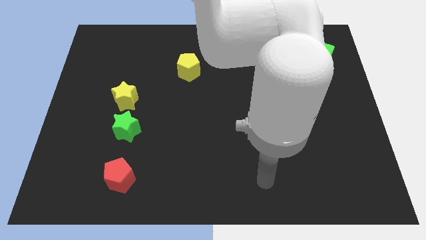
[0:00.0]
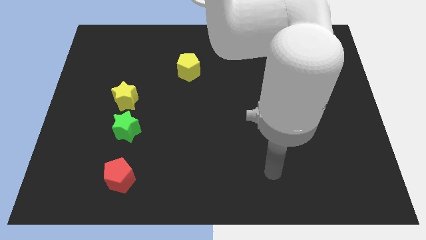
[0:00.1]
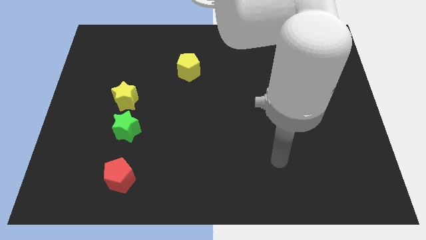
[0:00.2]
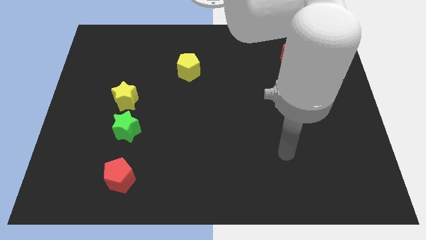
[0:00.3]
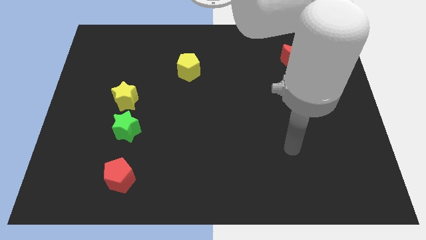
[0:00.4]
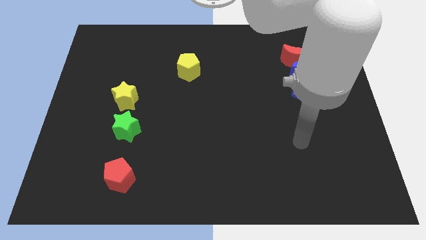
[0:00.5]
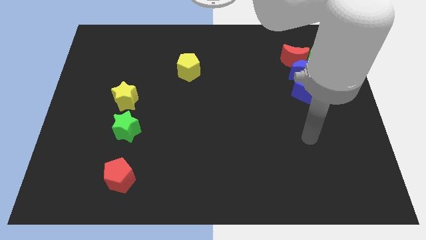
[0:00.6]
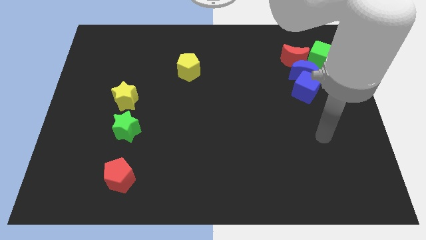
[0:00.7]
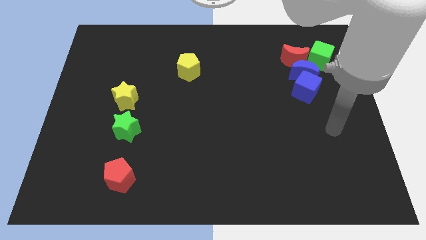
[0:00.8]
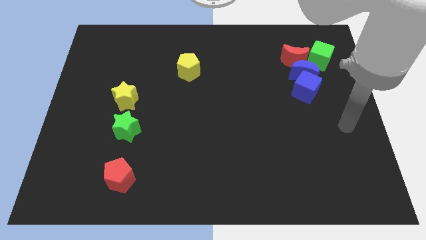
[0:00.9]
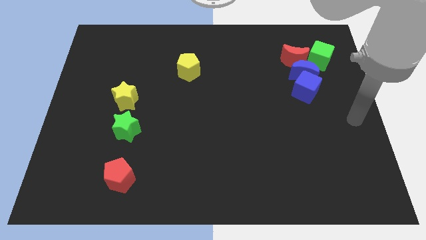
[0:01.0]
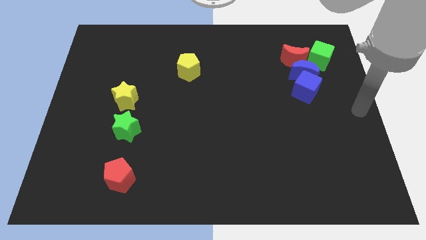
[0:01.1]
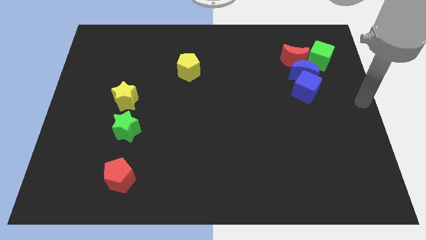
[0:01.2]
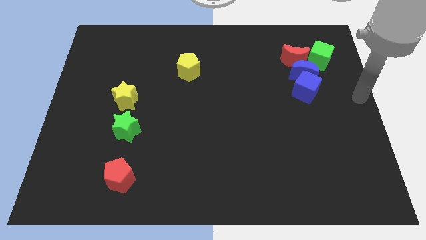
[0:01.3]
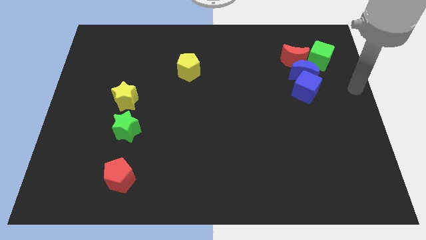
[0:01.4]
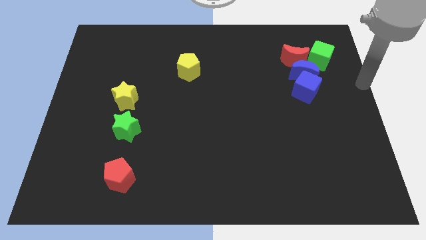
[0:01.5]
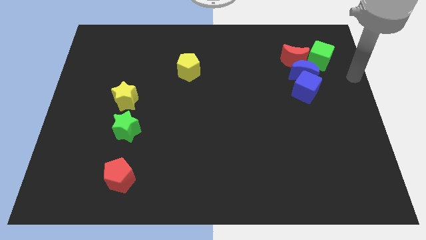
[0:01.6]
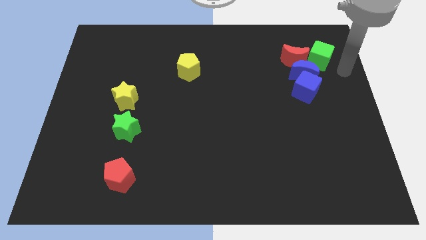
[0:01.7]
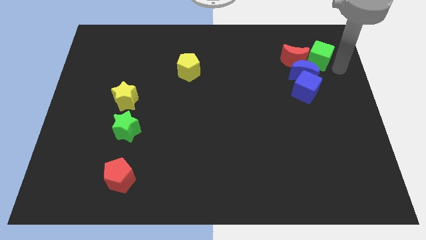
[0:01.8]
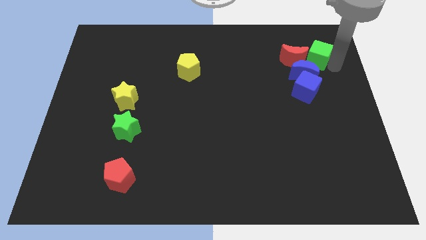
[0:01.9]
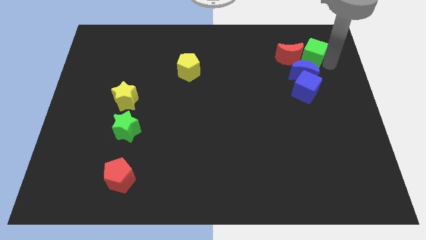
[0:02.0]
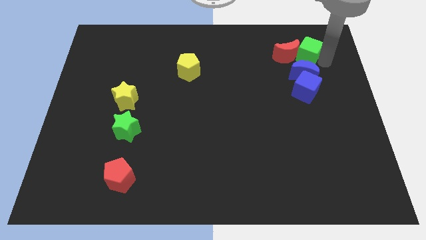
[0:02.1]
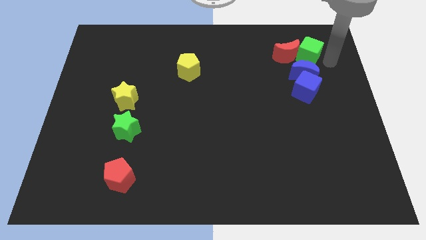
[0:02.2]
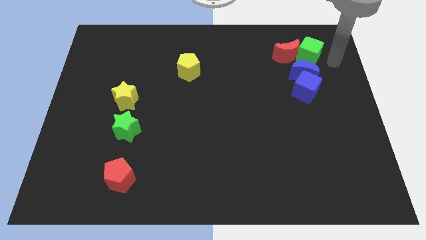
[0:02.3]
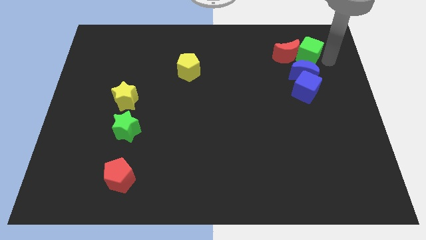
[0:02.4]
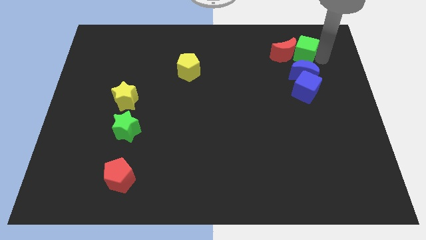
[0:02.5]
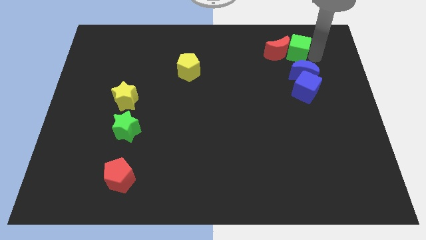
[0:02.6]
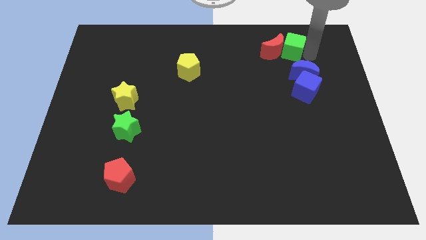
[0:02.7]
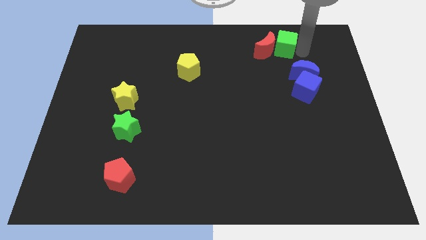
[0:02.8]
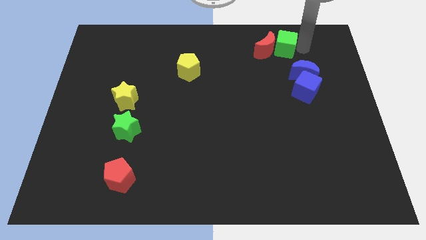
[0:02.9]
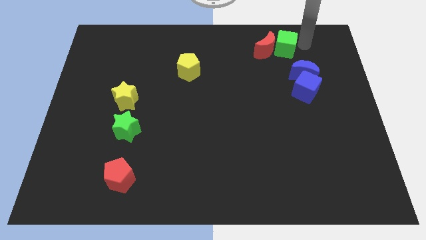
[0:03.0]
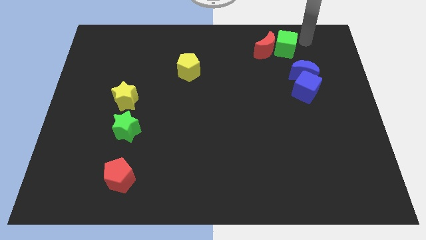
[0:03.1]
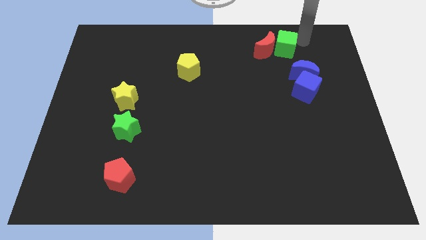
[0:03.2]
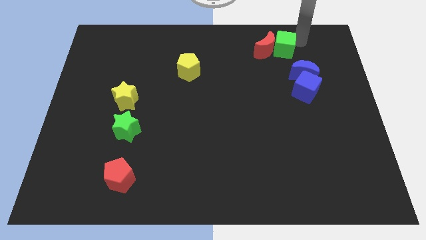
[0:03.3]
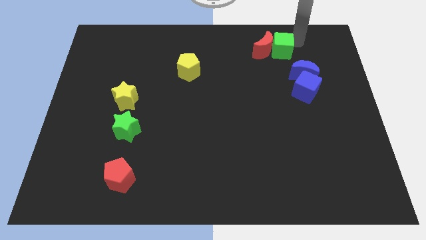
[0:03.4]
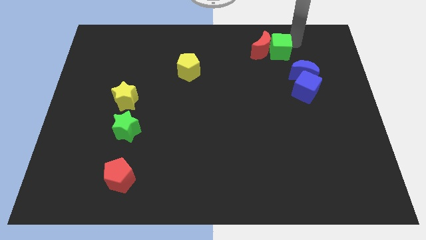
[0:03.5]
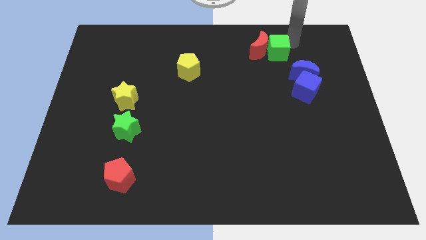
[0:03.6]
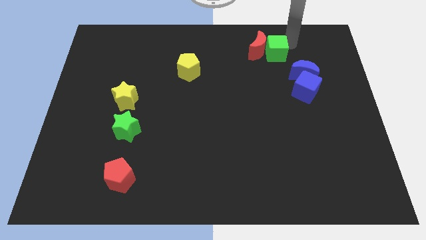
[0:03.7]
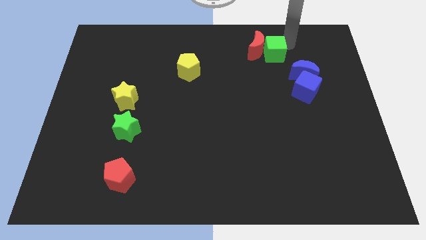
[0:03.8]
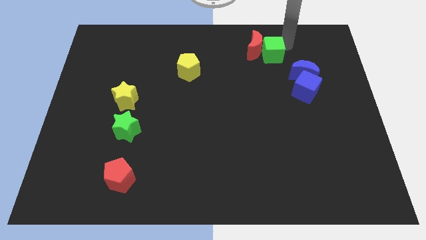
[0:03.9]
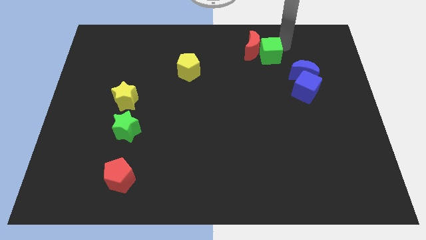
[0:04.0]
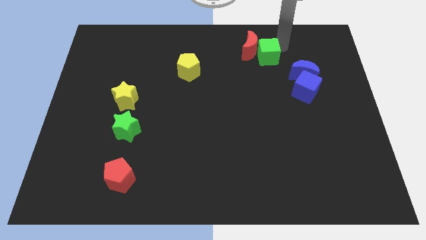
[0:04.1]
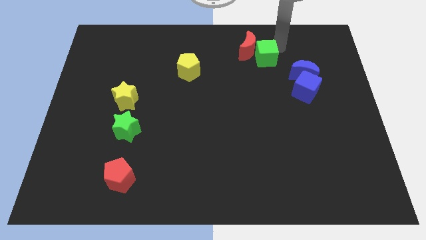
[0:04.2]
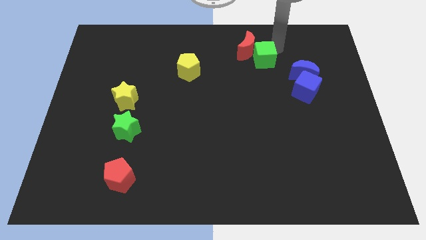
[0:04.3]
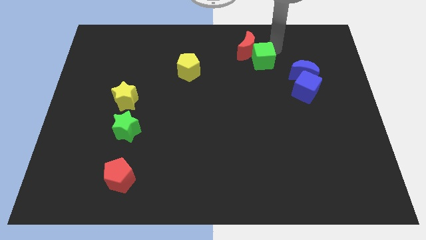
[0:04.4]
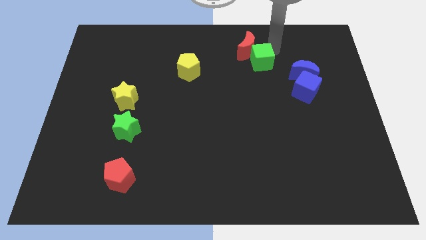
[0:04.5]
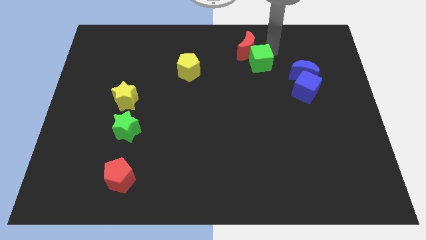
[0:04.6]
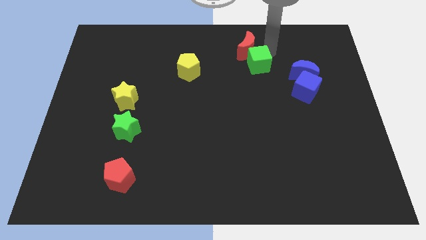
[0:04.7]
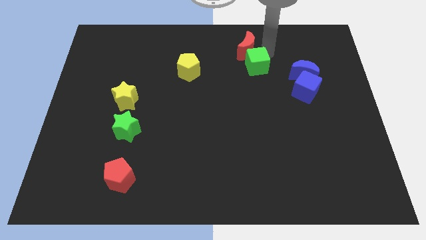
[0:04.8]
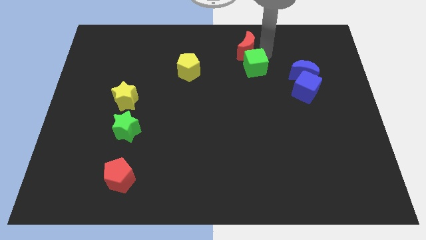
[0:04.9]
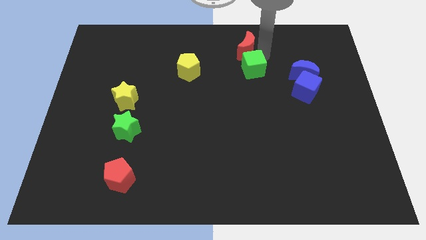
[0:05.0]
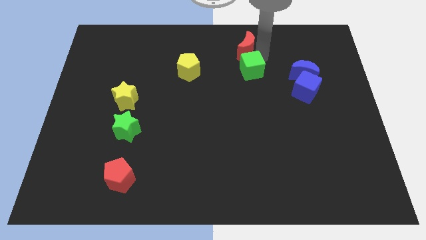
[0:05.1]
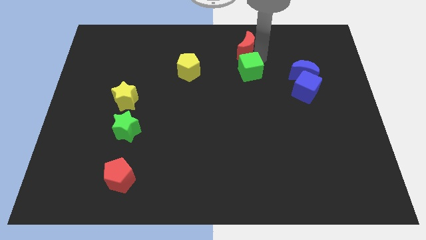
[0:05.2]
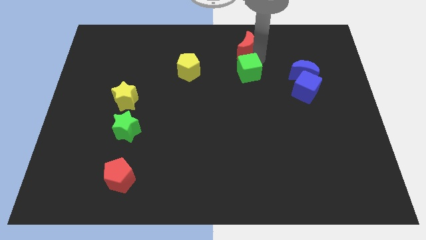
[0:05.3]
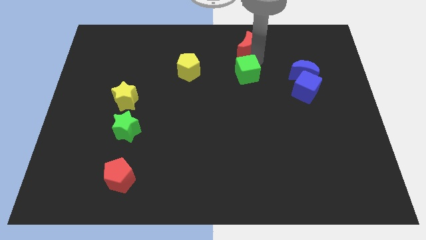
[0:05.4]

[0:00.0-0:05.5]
put the green cube to the center

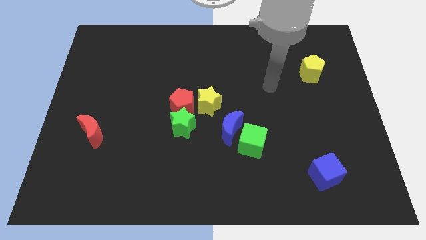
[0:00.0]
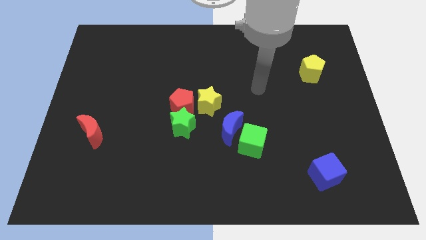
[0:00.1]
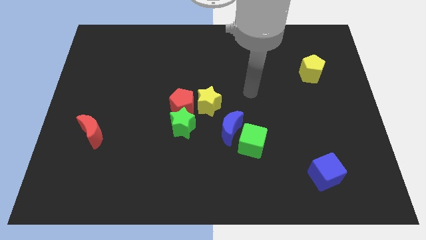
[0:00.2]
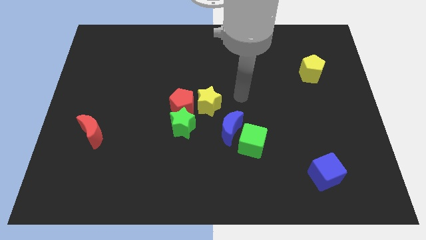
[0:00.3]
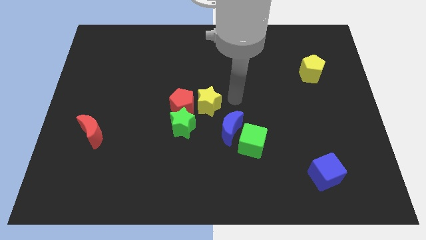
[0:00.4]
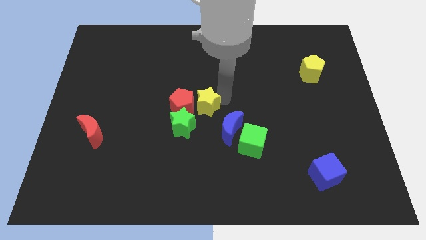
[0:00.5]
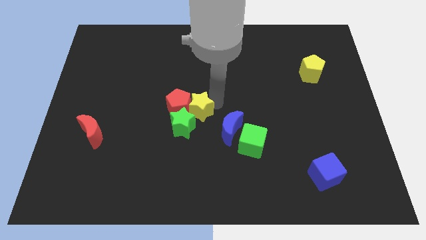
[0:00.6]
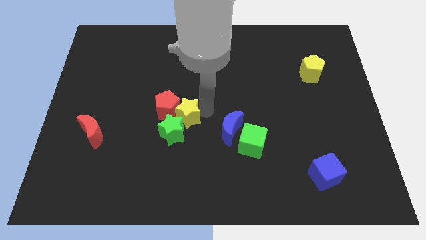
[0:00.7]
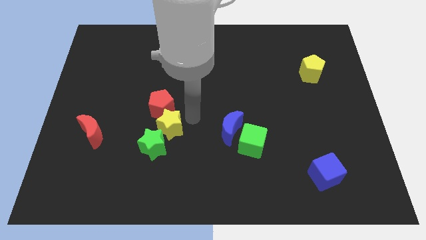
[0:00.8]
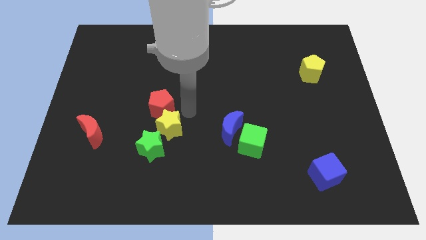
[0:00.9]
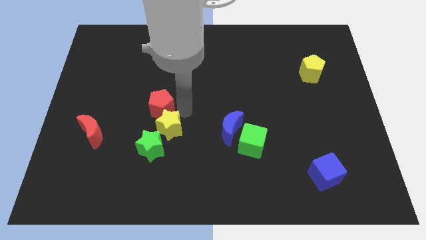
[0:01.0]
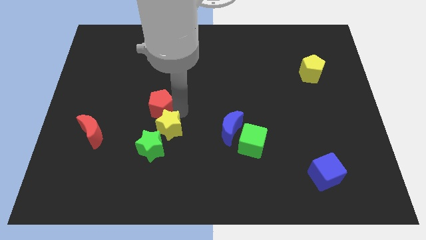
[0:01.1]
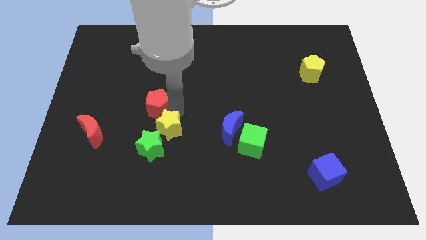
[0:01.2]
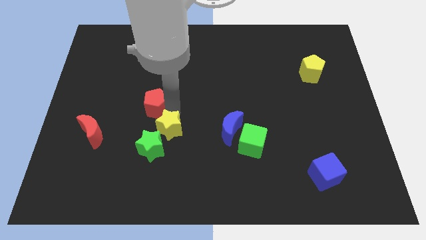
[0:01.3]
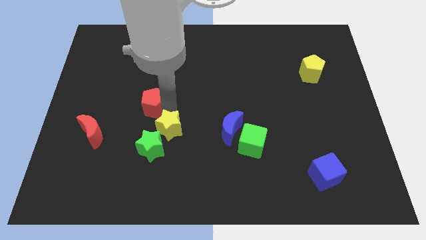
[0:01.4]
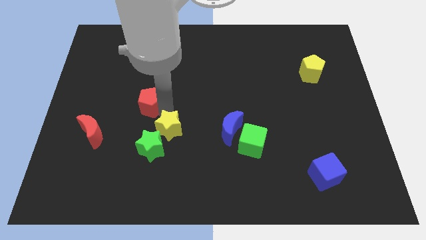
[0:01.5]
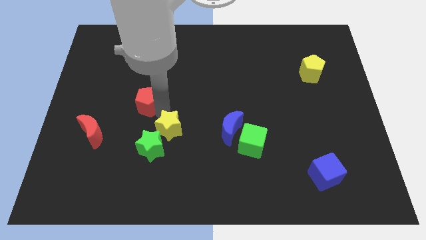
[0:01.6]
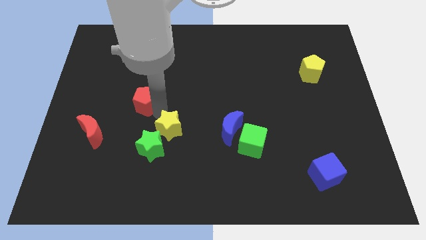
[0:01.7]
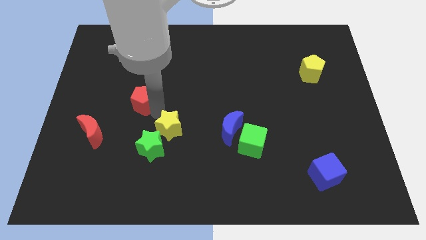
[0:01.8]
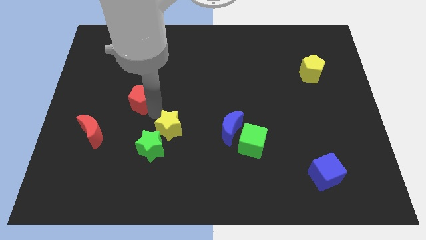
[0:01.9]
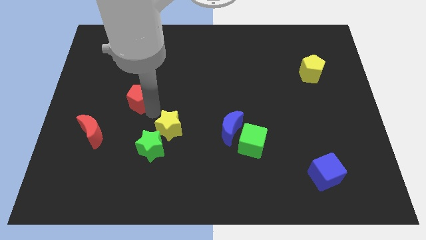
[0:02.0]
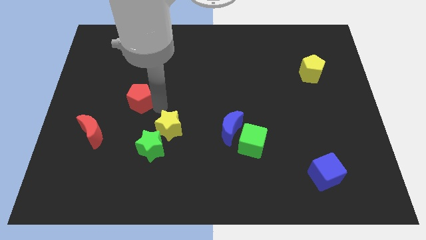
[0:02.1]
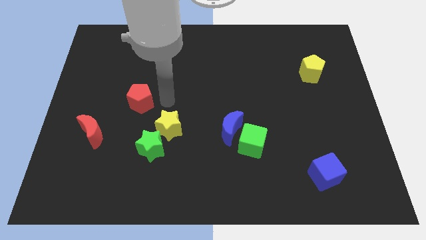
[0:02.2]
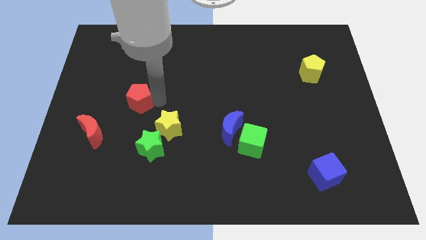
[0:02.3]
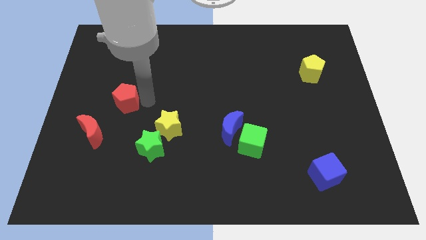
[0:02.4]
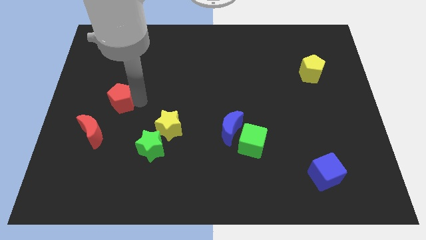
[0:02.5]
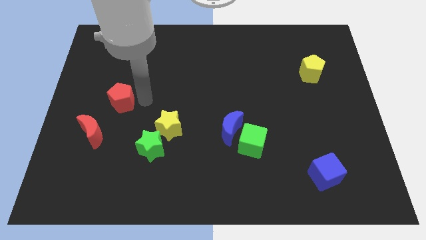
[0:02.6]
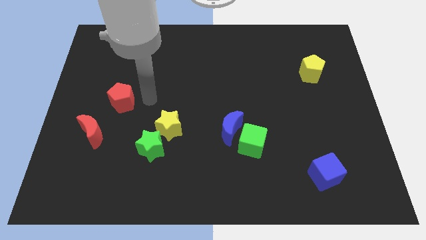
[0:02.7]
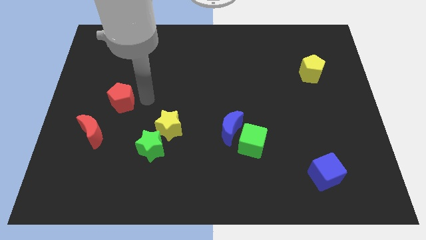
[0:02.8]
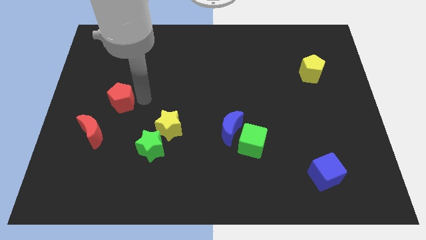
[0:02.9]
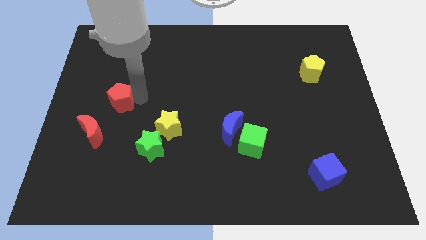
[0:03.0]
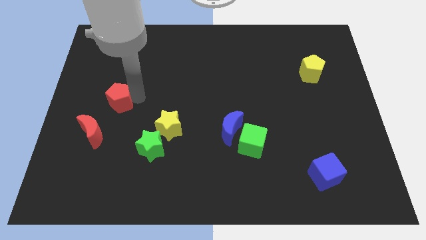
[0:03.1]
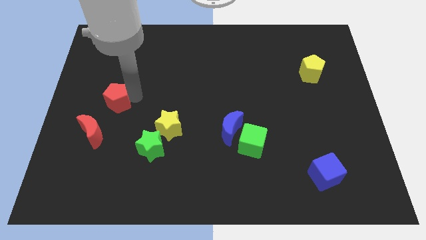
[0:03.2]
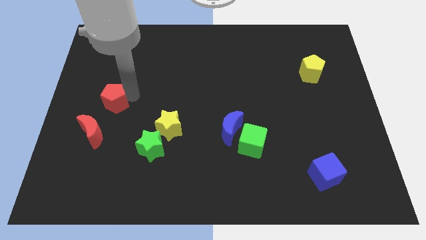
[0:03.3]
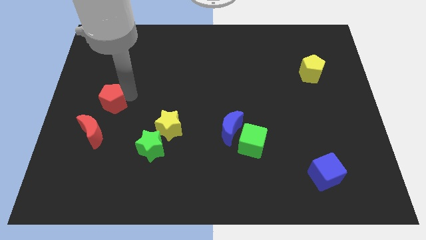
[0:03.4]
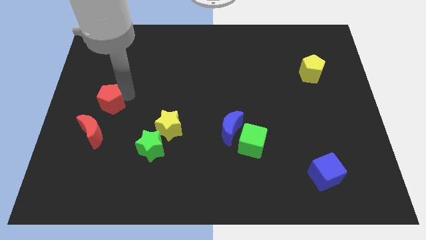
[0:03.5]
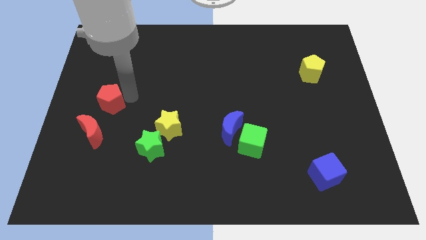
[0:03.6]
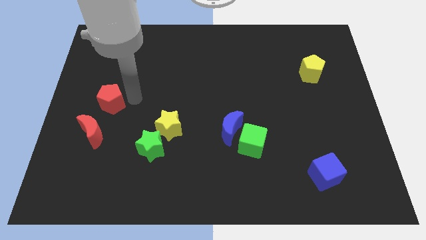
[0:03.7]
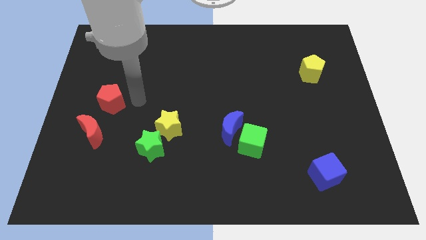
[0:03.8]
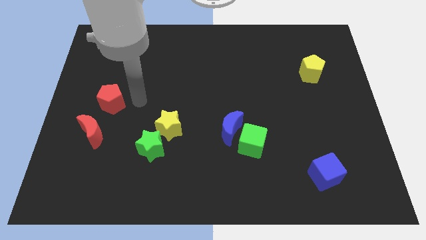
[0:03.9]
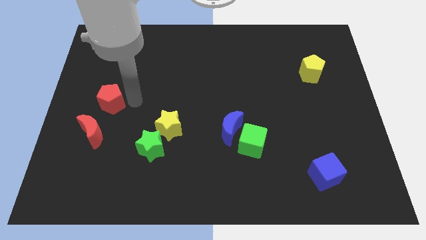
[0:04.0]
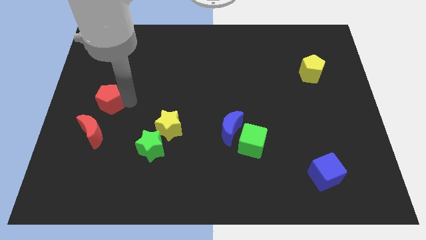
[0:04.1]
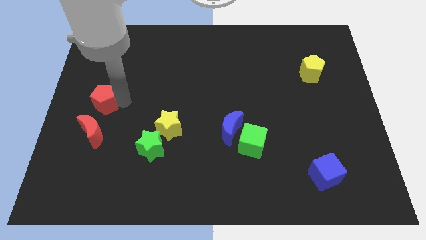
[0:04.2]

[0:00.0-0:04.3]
move the red pentagon to the left side of the board
